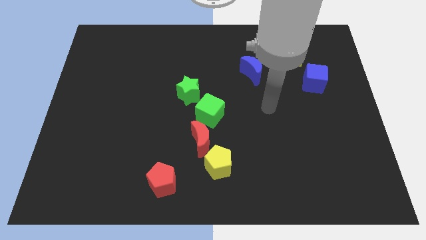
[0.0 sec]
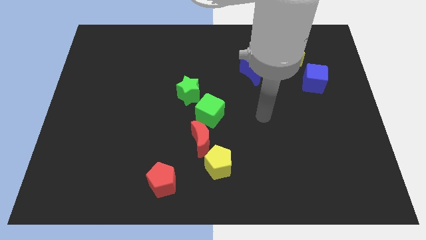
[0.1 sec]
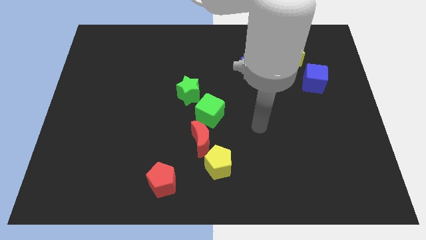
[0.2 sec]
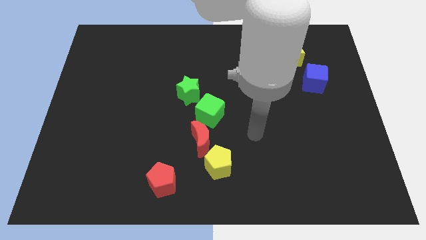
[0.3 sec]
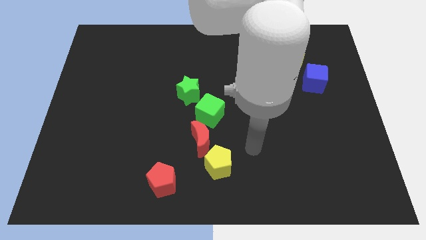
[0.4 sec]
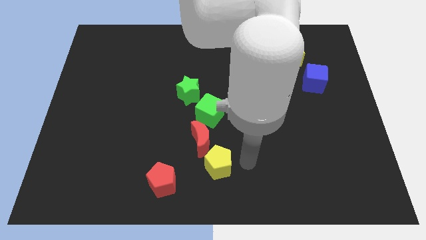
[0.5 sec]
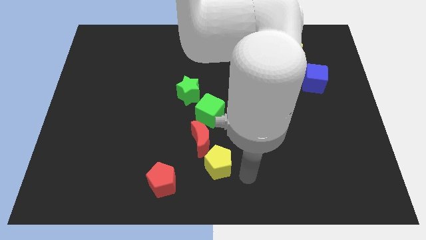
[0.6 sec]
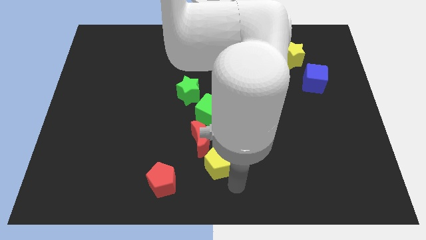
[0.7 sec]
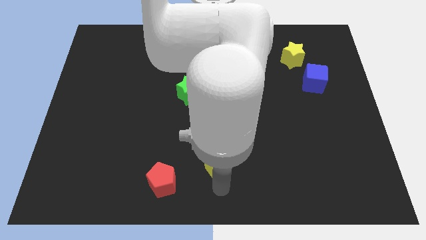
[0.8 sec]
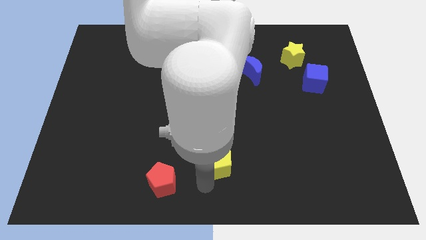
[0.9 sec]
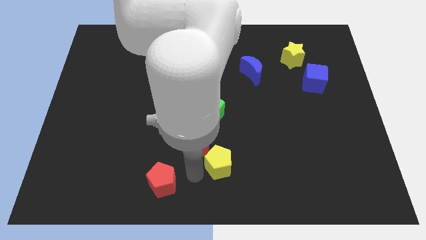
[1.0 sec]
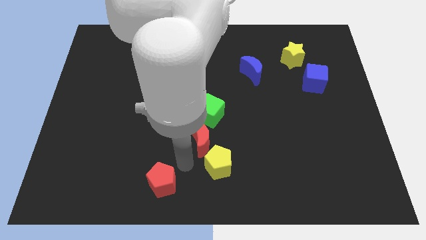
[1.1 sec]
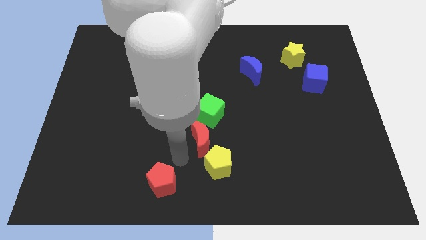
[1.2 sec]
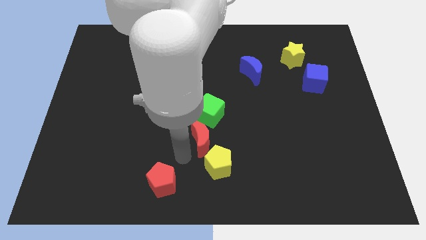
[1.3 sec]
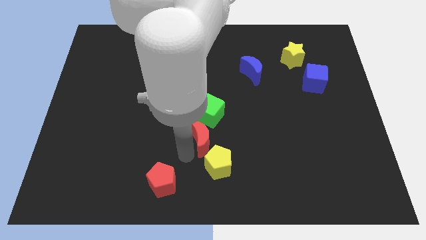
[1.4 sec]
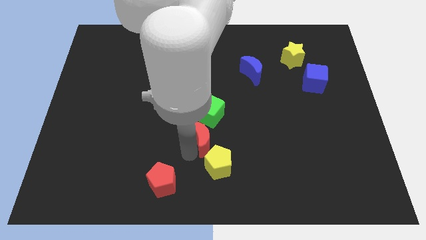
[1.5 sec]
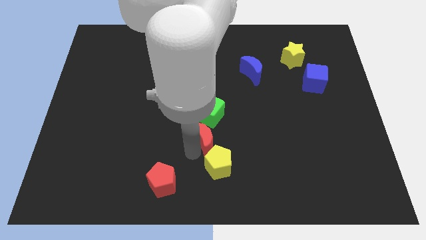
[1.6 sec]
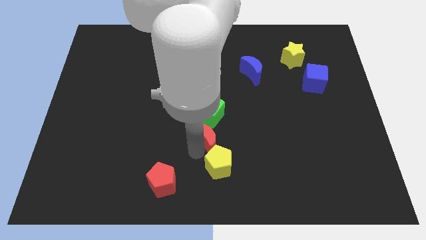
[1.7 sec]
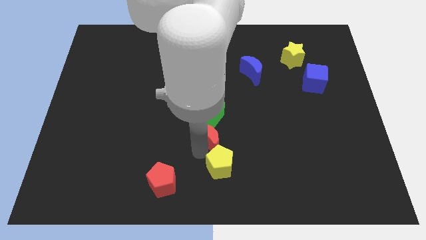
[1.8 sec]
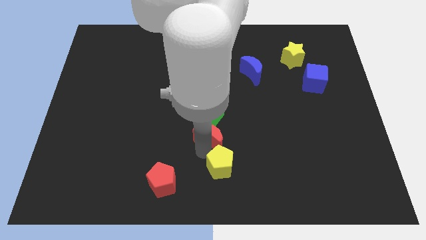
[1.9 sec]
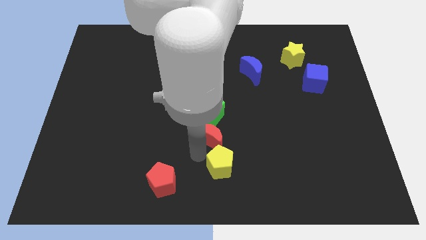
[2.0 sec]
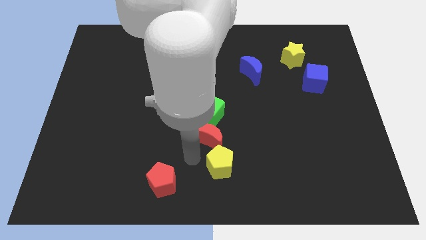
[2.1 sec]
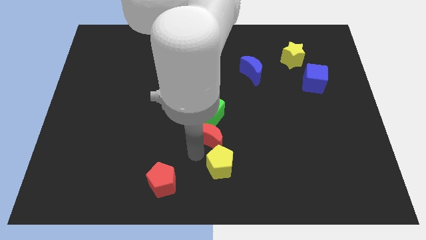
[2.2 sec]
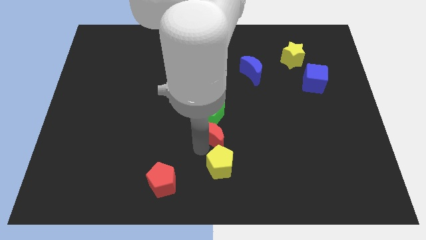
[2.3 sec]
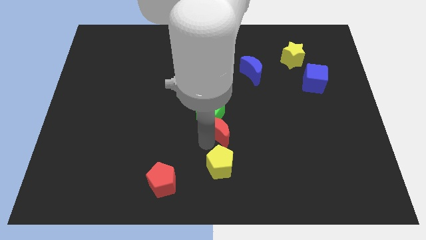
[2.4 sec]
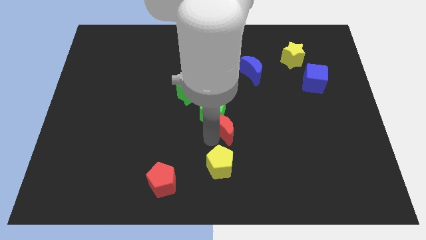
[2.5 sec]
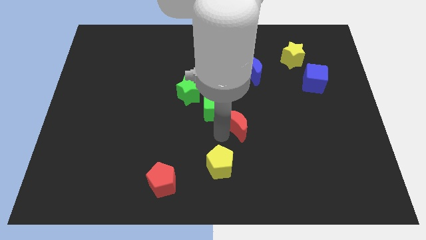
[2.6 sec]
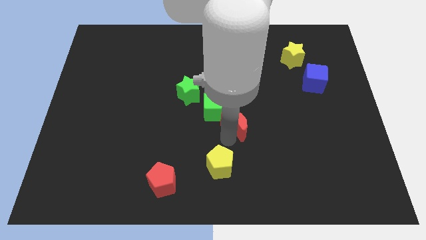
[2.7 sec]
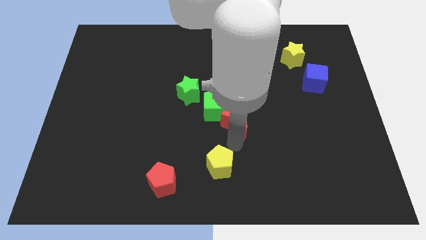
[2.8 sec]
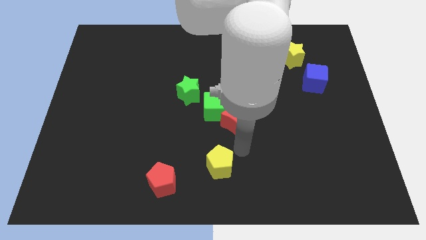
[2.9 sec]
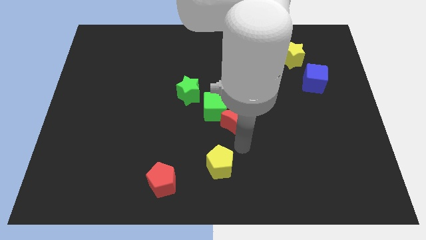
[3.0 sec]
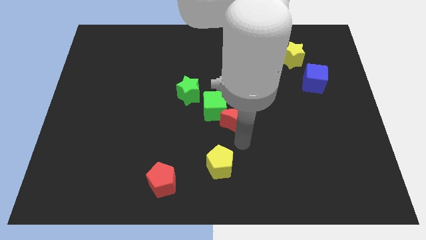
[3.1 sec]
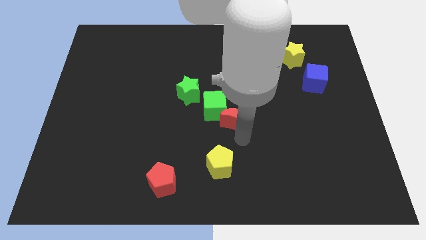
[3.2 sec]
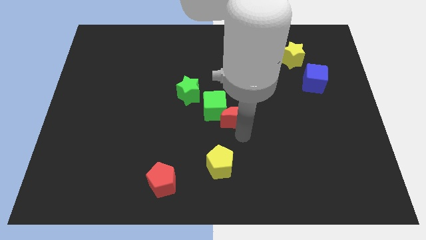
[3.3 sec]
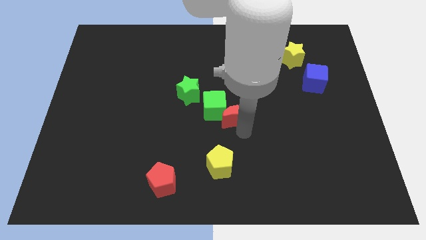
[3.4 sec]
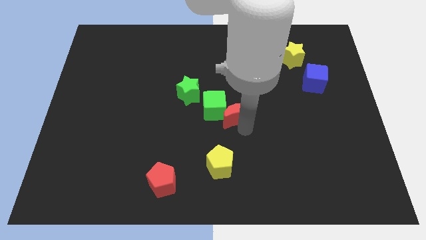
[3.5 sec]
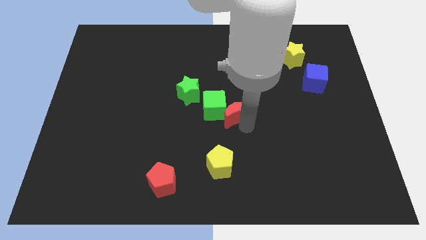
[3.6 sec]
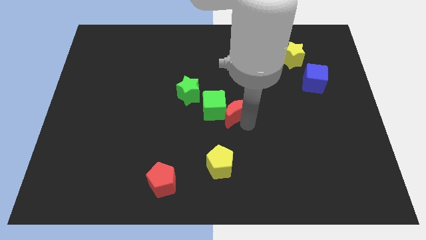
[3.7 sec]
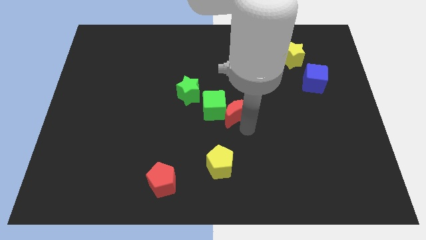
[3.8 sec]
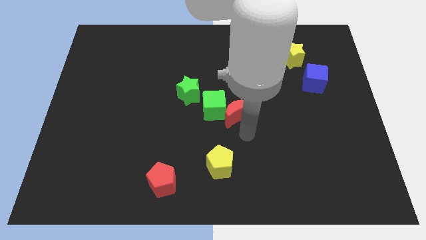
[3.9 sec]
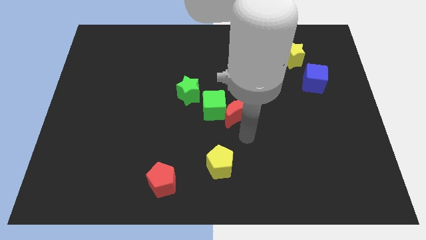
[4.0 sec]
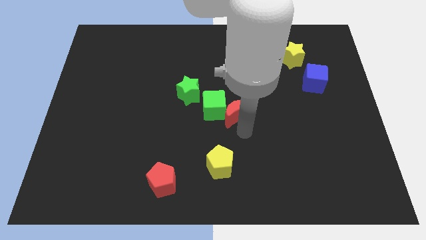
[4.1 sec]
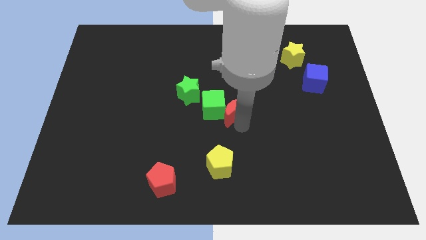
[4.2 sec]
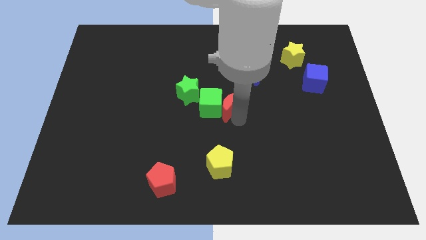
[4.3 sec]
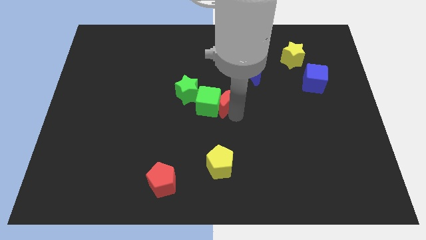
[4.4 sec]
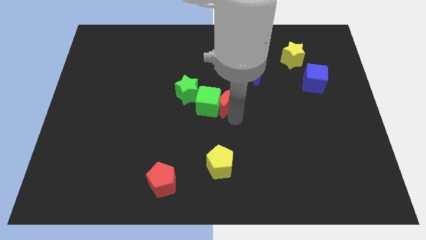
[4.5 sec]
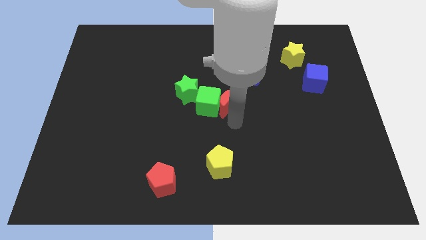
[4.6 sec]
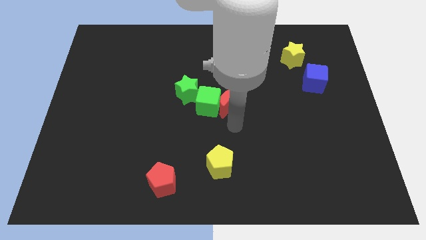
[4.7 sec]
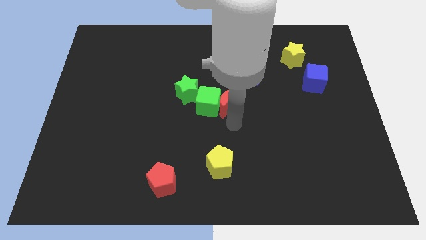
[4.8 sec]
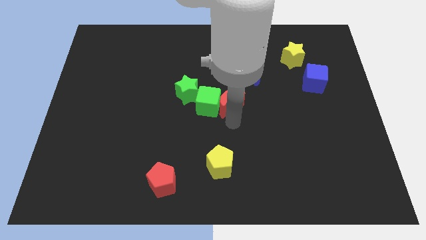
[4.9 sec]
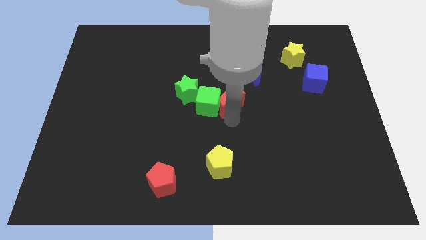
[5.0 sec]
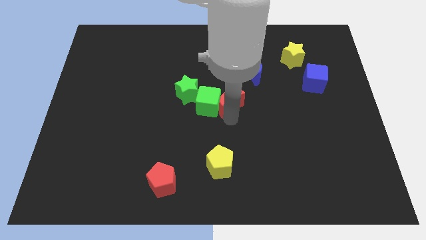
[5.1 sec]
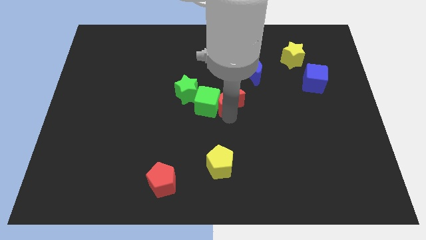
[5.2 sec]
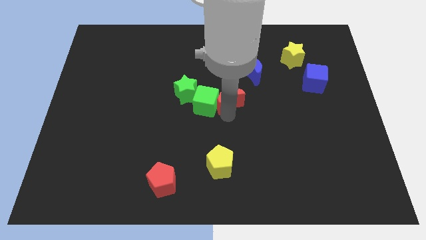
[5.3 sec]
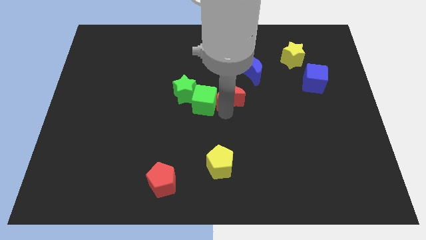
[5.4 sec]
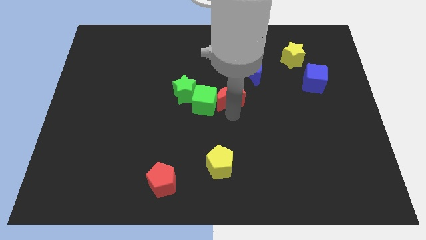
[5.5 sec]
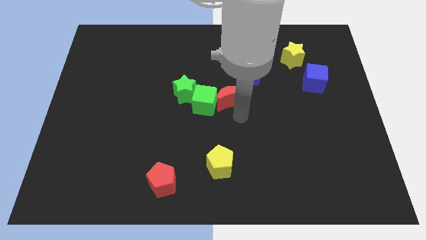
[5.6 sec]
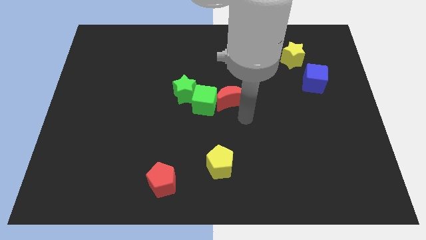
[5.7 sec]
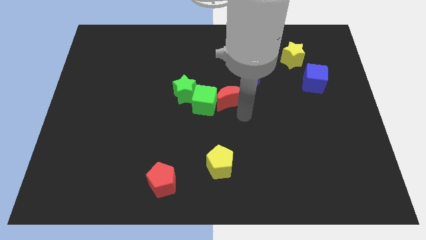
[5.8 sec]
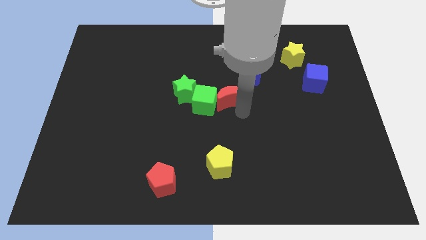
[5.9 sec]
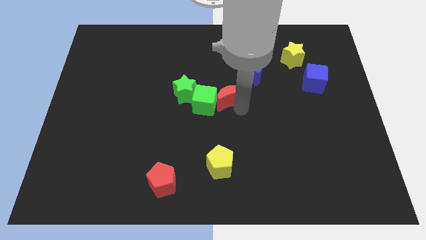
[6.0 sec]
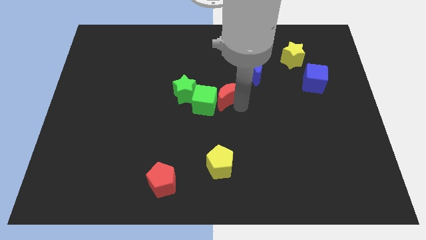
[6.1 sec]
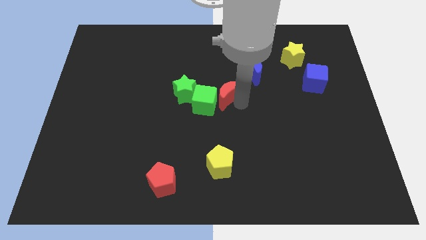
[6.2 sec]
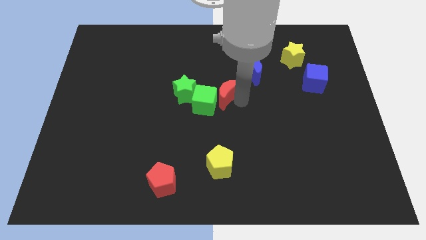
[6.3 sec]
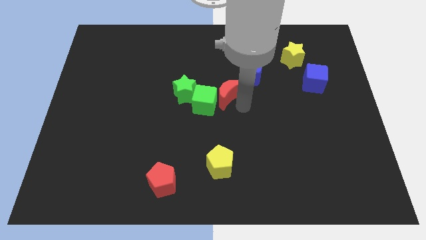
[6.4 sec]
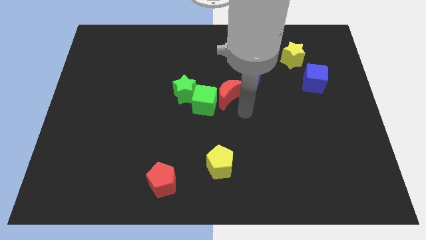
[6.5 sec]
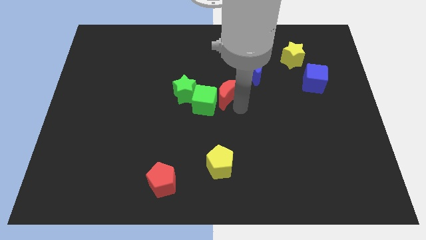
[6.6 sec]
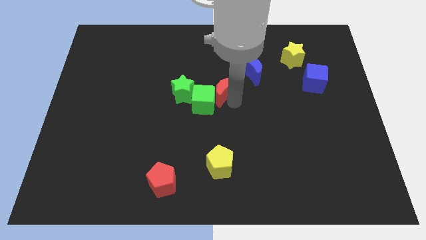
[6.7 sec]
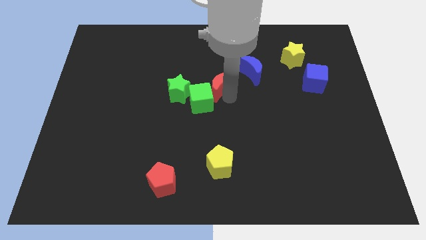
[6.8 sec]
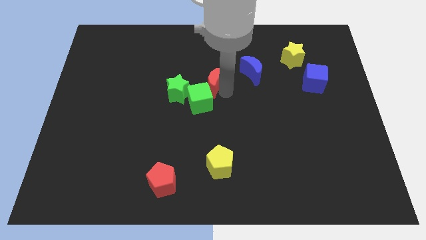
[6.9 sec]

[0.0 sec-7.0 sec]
slide the red moon diagonally up and to the right of the green star
